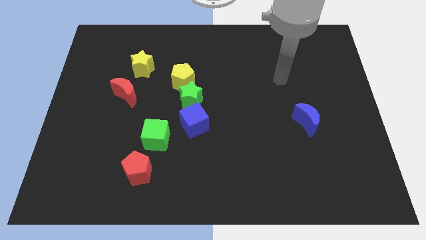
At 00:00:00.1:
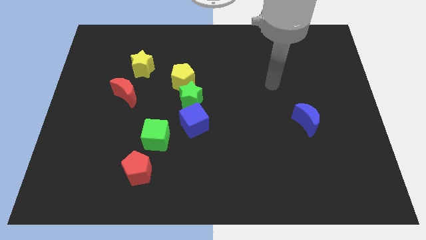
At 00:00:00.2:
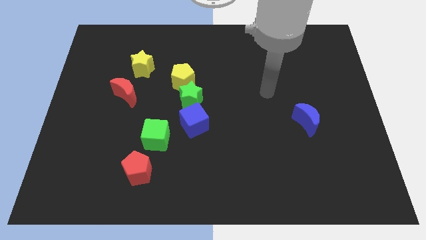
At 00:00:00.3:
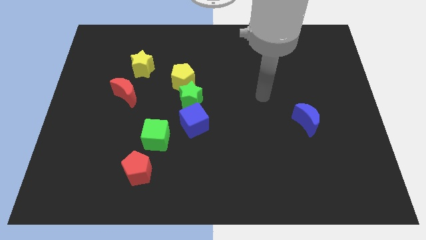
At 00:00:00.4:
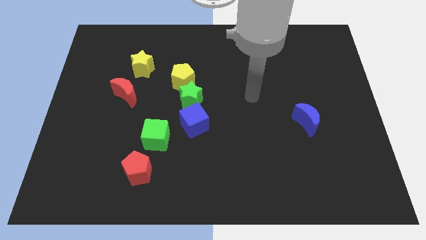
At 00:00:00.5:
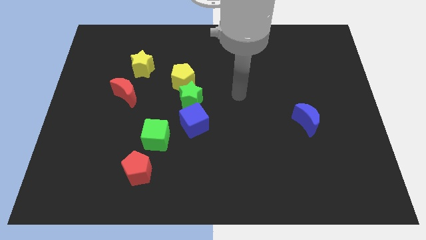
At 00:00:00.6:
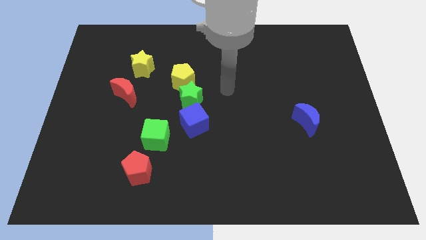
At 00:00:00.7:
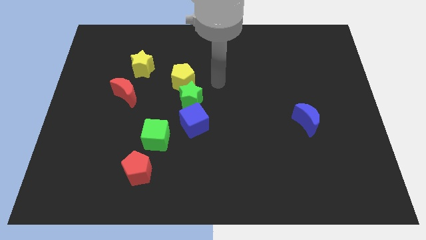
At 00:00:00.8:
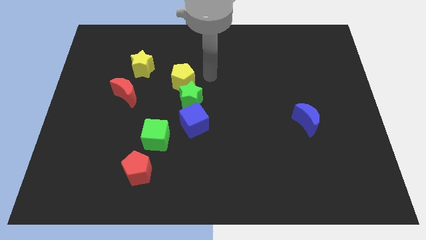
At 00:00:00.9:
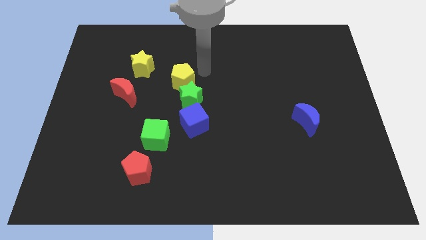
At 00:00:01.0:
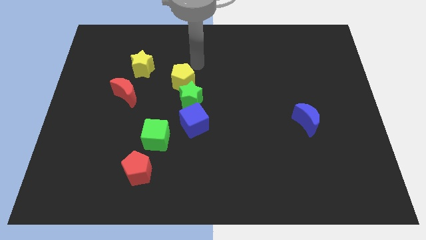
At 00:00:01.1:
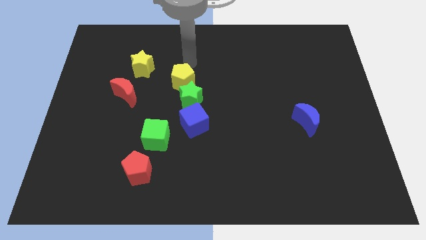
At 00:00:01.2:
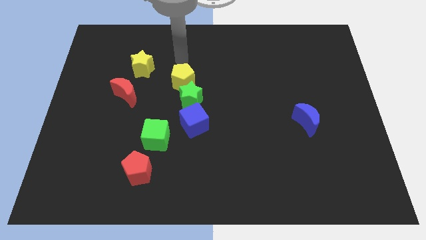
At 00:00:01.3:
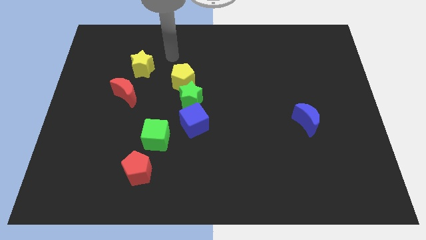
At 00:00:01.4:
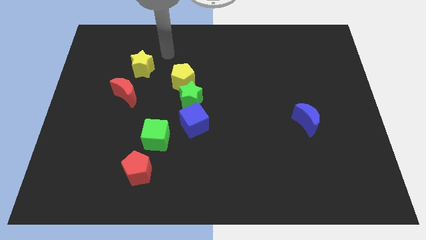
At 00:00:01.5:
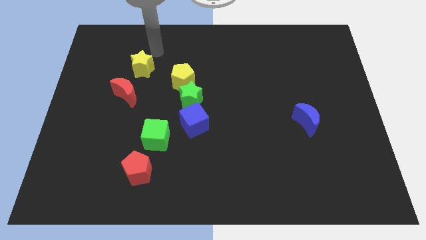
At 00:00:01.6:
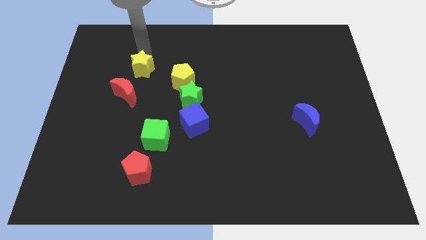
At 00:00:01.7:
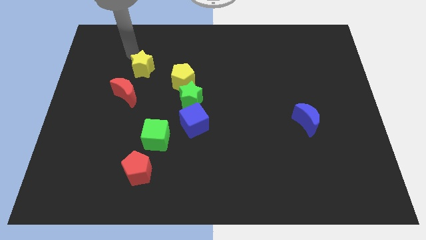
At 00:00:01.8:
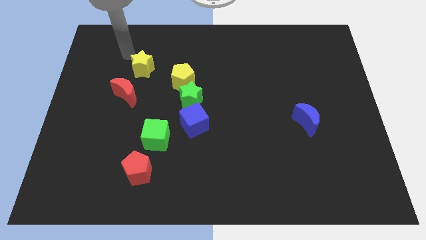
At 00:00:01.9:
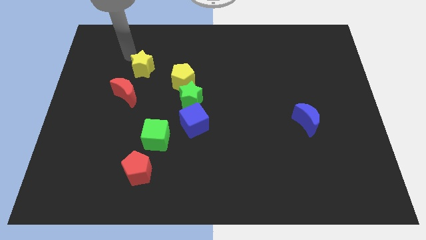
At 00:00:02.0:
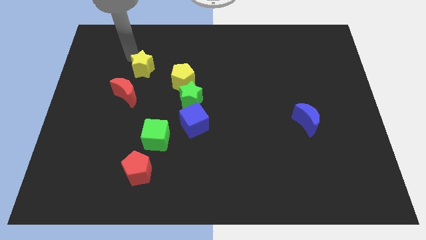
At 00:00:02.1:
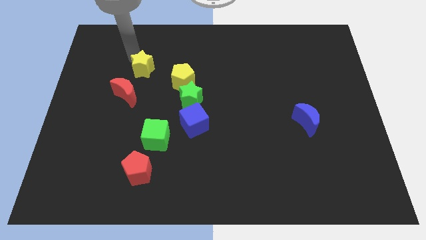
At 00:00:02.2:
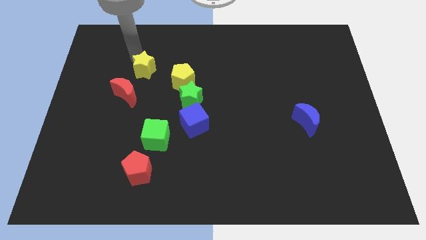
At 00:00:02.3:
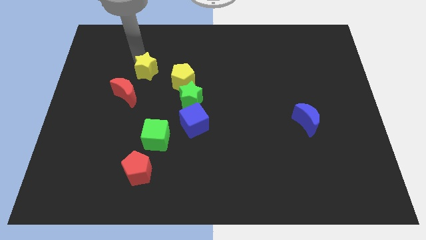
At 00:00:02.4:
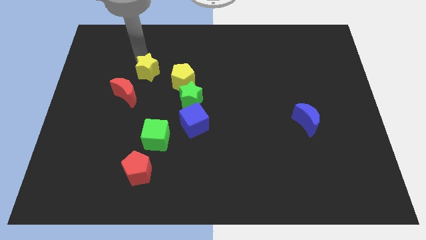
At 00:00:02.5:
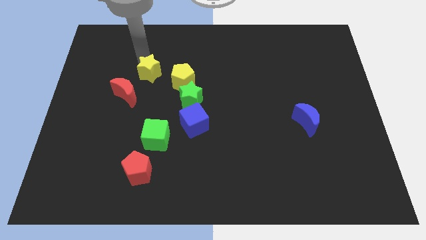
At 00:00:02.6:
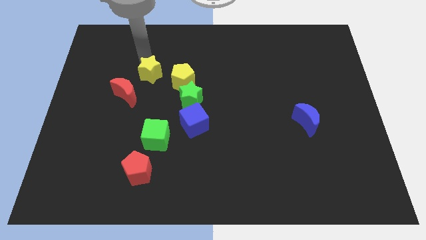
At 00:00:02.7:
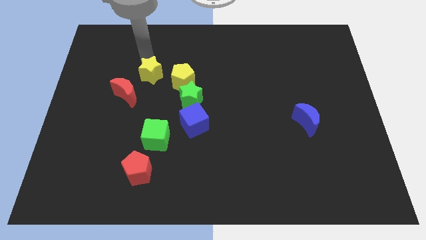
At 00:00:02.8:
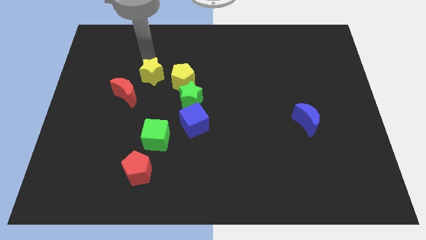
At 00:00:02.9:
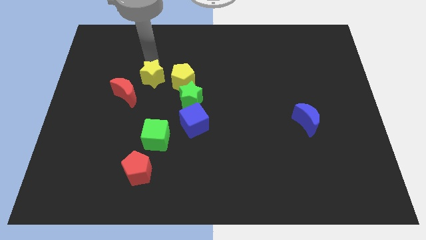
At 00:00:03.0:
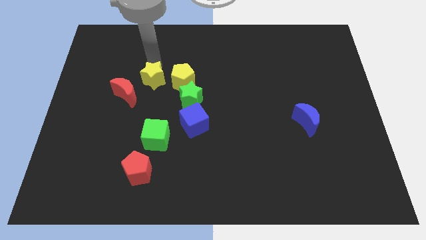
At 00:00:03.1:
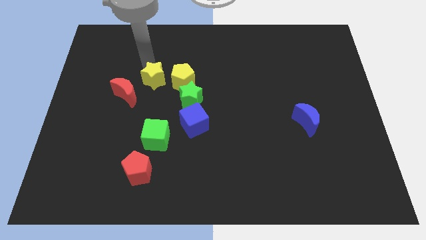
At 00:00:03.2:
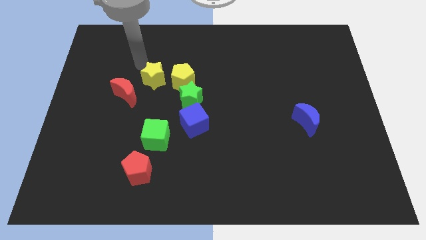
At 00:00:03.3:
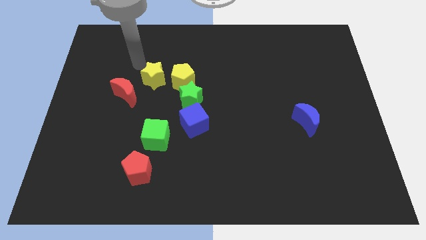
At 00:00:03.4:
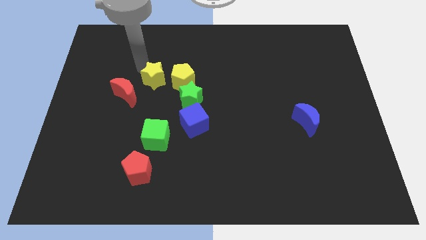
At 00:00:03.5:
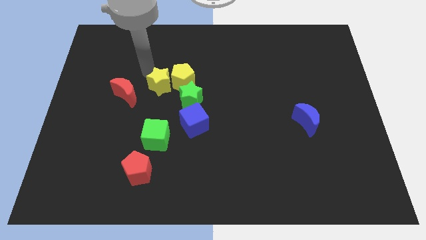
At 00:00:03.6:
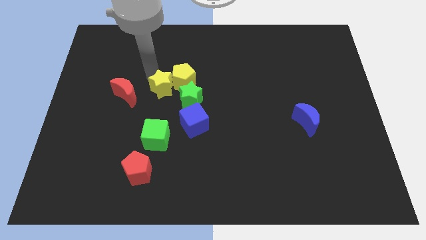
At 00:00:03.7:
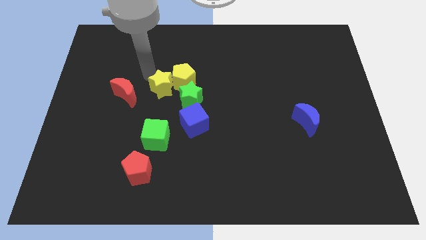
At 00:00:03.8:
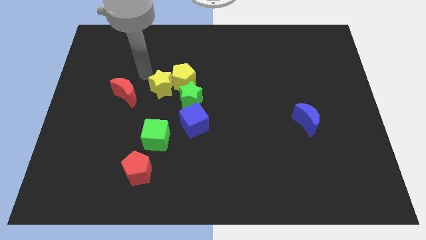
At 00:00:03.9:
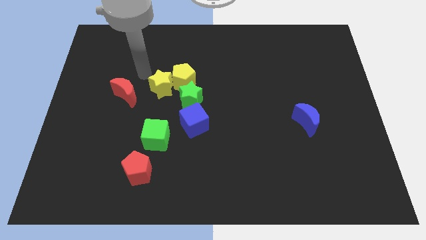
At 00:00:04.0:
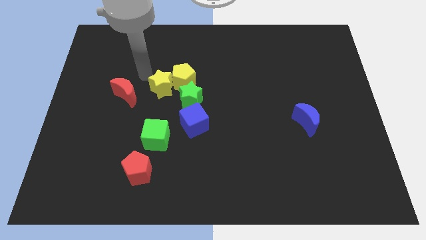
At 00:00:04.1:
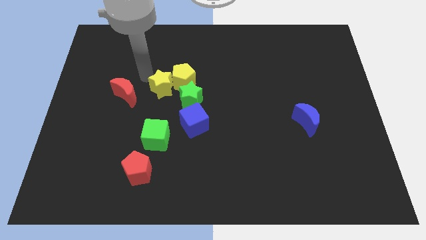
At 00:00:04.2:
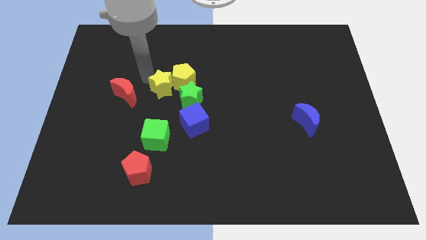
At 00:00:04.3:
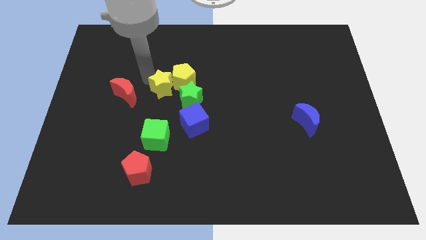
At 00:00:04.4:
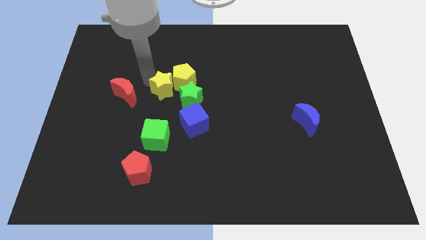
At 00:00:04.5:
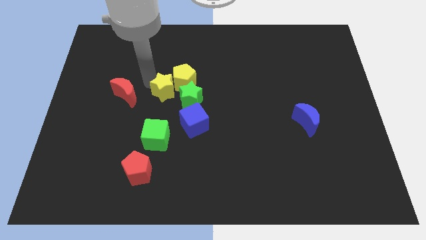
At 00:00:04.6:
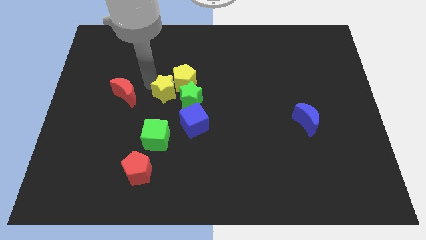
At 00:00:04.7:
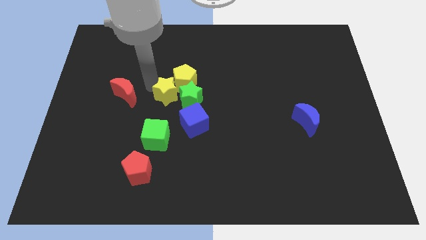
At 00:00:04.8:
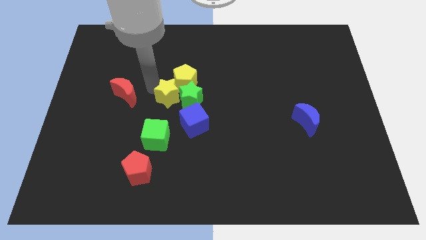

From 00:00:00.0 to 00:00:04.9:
slide the yellow star next to the green star

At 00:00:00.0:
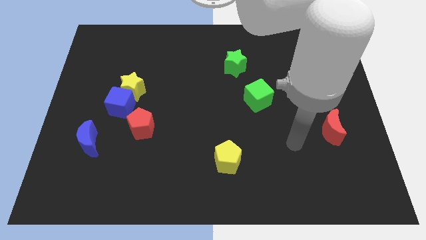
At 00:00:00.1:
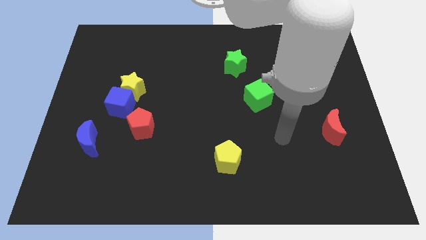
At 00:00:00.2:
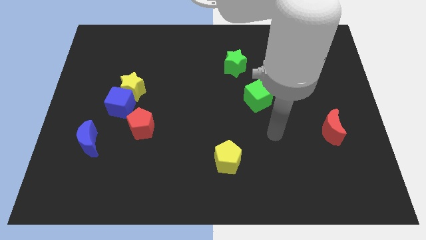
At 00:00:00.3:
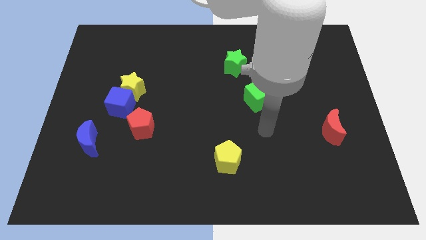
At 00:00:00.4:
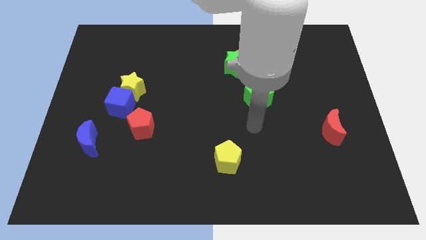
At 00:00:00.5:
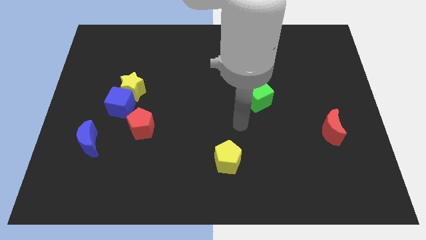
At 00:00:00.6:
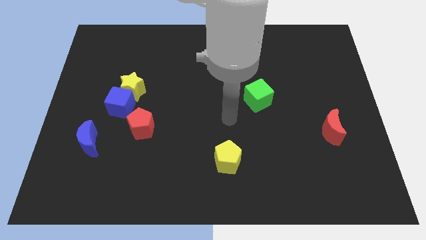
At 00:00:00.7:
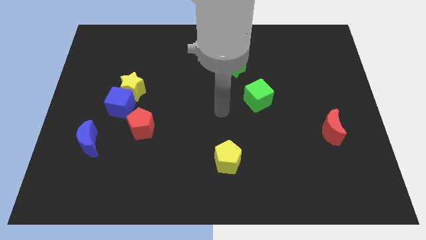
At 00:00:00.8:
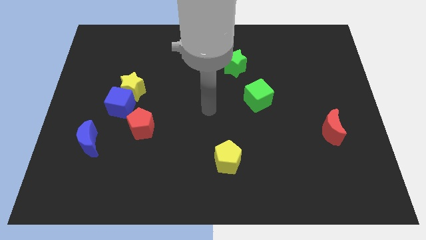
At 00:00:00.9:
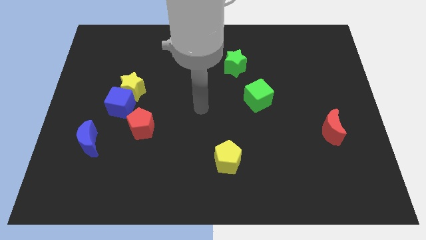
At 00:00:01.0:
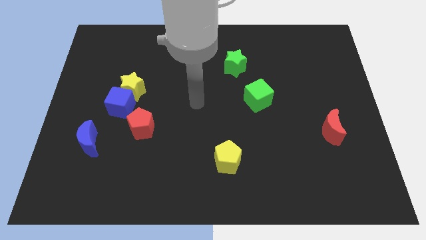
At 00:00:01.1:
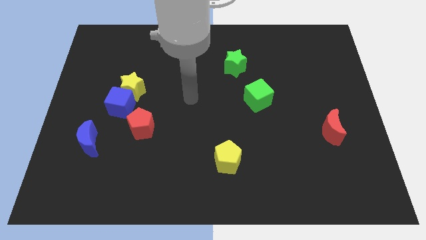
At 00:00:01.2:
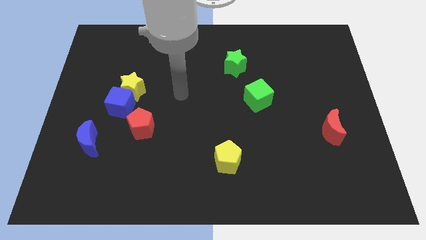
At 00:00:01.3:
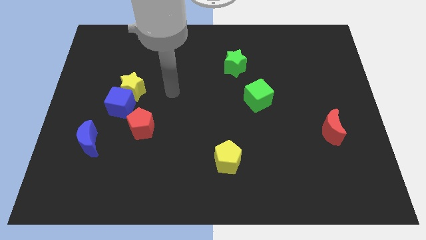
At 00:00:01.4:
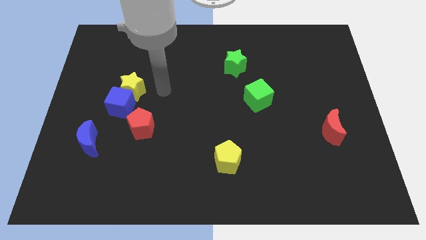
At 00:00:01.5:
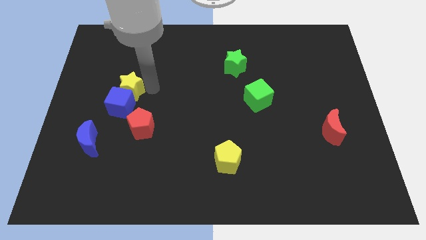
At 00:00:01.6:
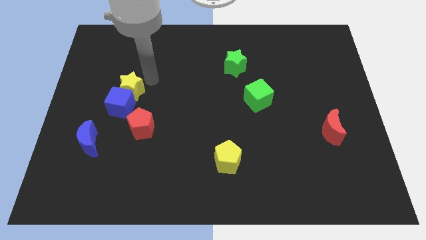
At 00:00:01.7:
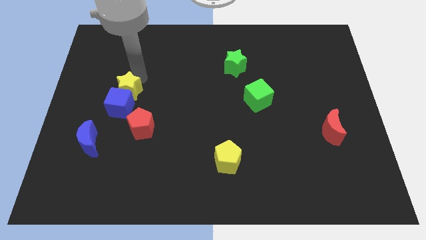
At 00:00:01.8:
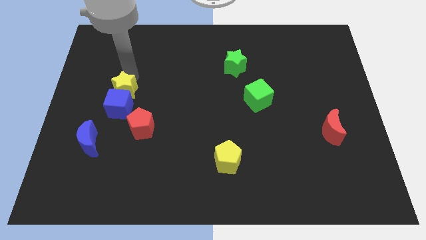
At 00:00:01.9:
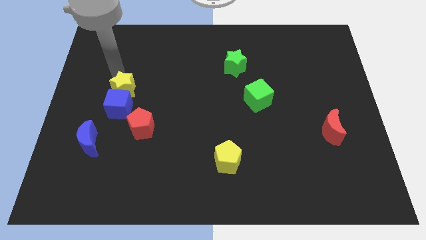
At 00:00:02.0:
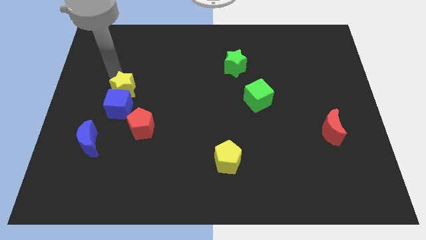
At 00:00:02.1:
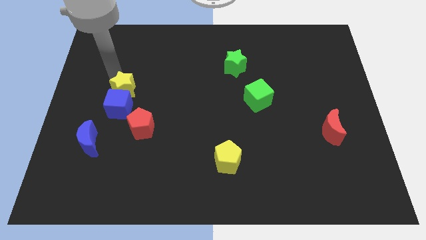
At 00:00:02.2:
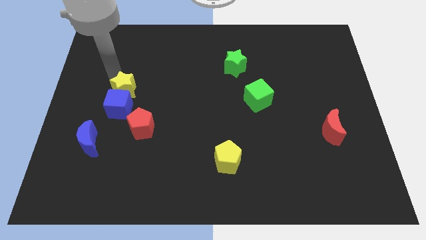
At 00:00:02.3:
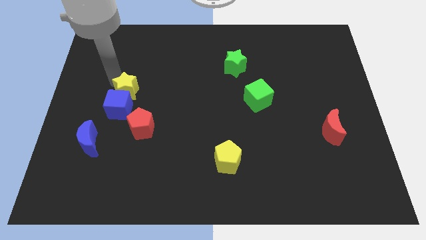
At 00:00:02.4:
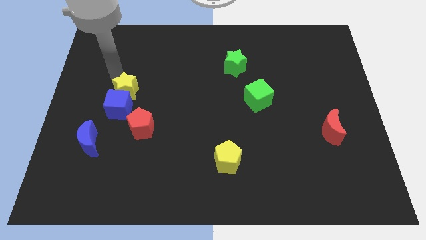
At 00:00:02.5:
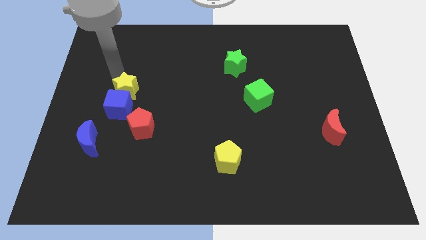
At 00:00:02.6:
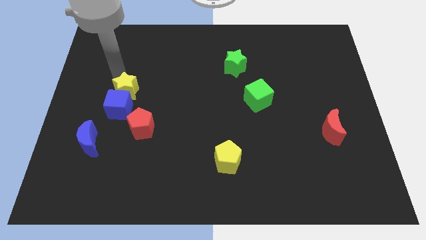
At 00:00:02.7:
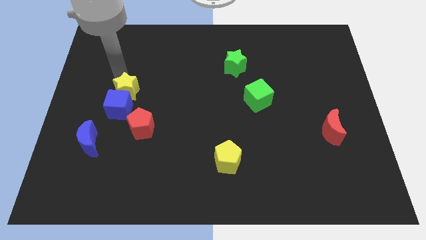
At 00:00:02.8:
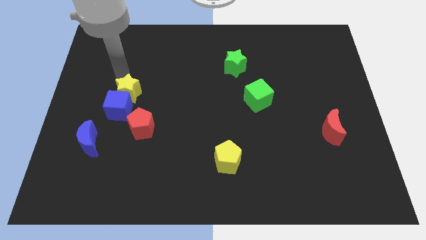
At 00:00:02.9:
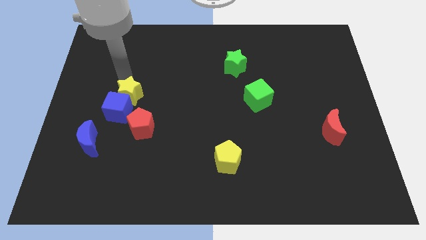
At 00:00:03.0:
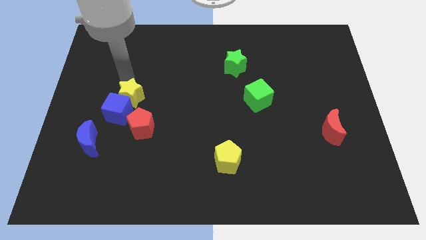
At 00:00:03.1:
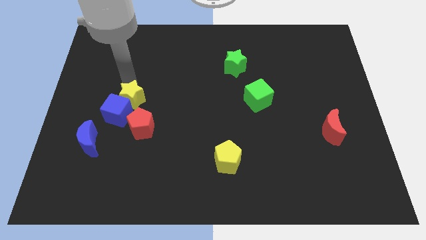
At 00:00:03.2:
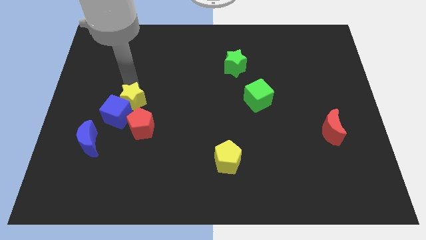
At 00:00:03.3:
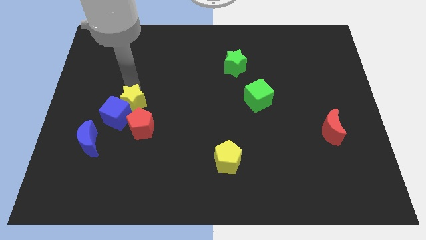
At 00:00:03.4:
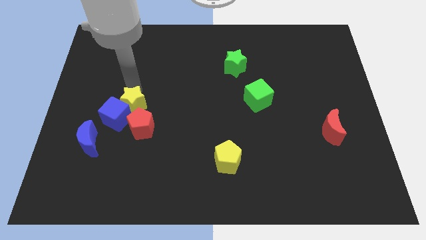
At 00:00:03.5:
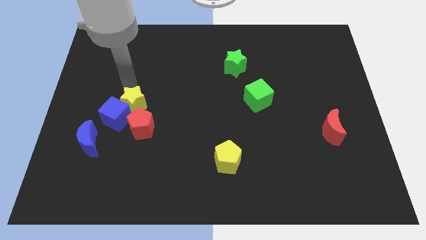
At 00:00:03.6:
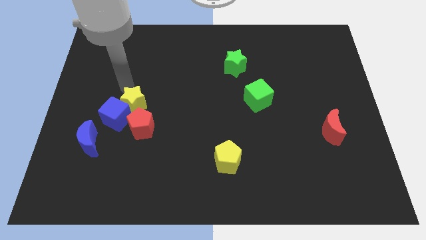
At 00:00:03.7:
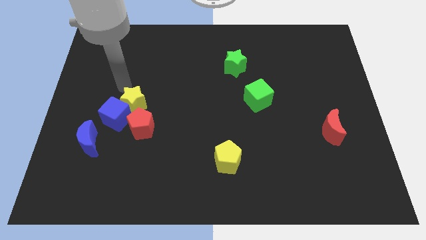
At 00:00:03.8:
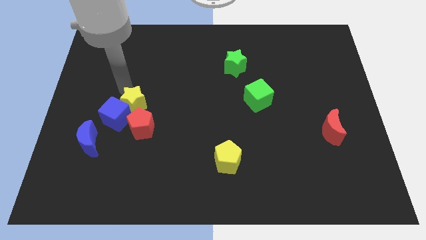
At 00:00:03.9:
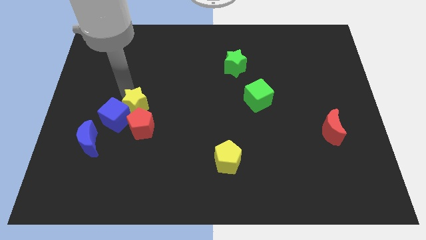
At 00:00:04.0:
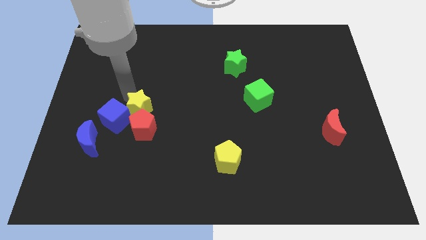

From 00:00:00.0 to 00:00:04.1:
slide the yellow star towards the red pentagon
